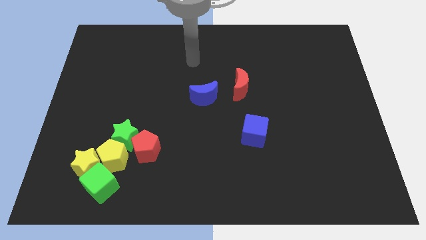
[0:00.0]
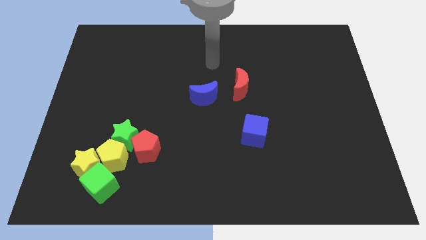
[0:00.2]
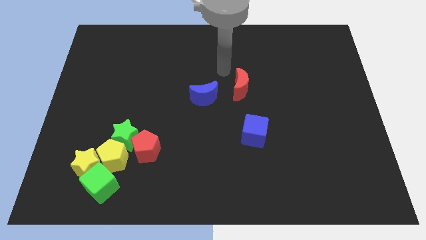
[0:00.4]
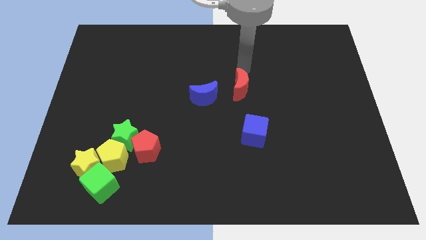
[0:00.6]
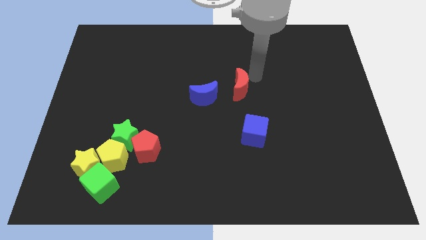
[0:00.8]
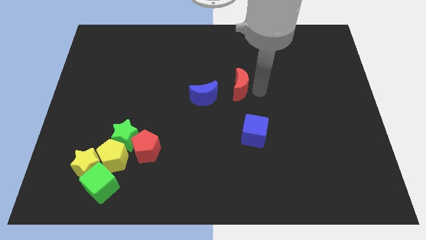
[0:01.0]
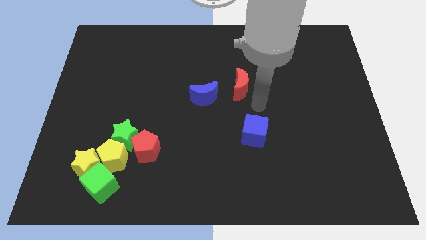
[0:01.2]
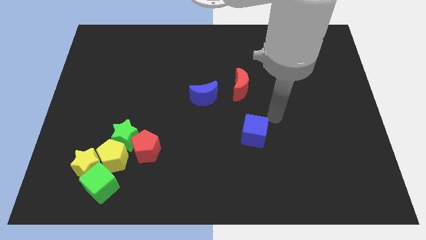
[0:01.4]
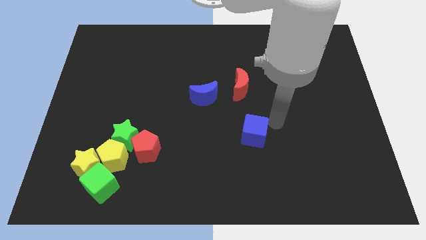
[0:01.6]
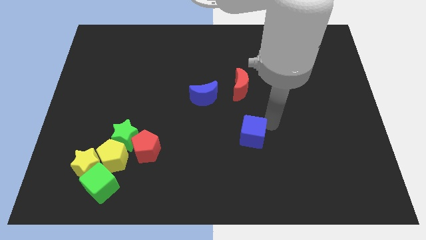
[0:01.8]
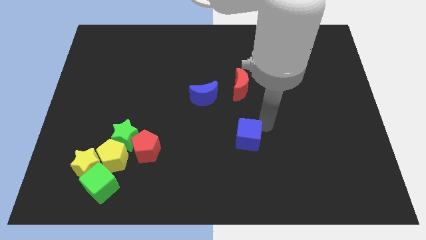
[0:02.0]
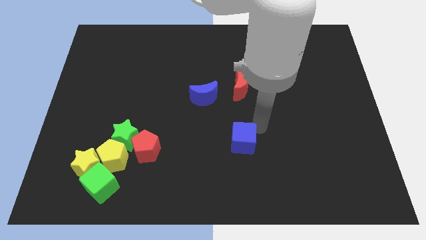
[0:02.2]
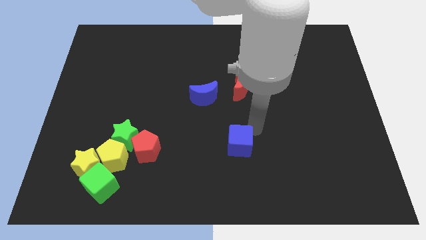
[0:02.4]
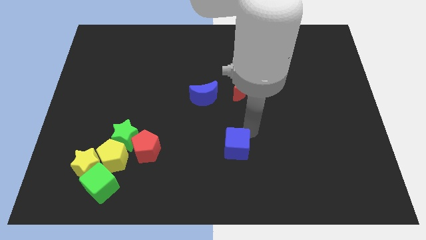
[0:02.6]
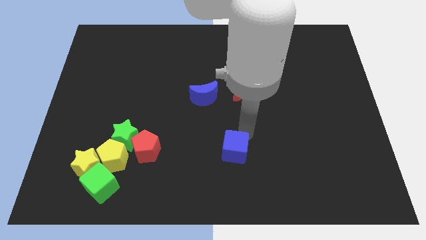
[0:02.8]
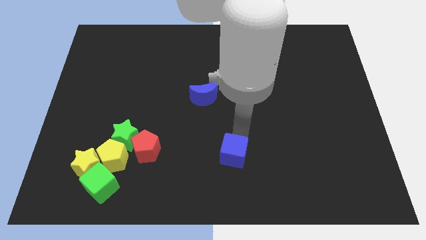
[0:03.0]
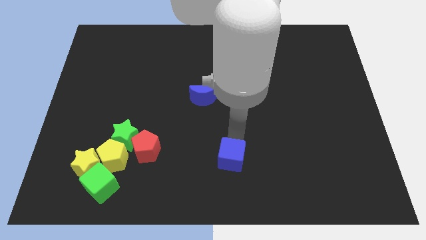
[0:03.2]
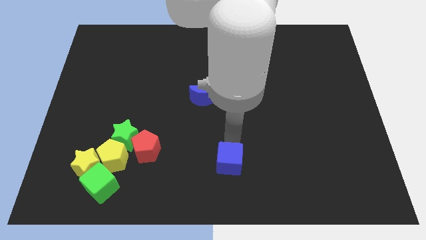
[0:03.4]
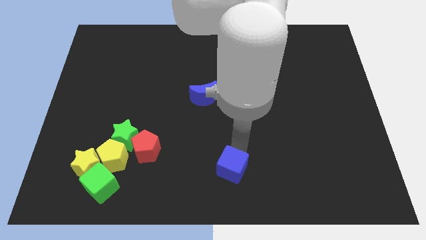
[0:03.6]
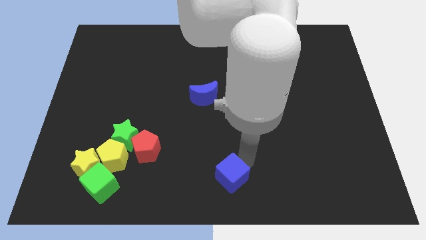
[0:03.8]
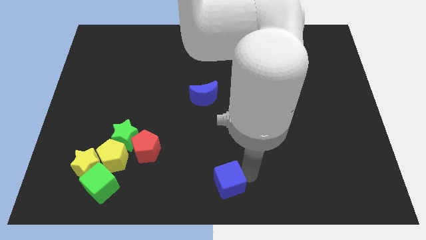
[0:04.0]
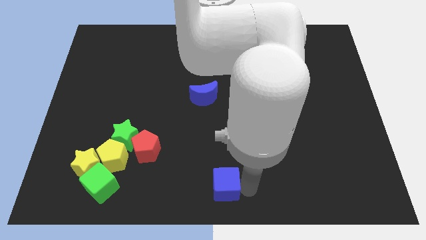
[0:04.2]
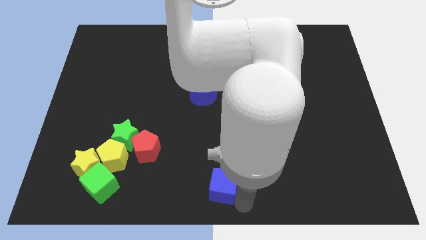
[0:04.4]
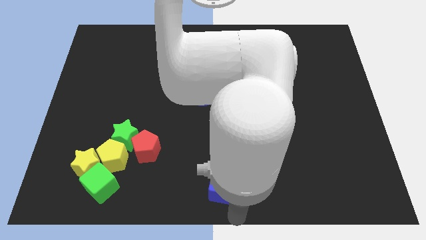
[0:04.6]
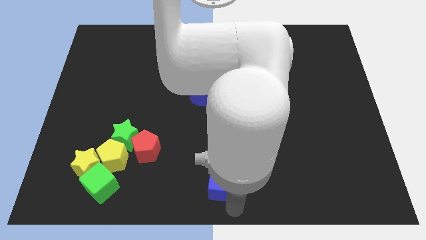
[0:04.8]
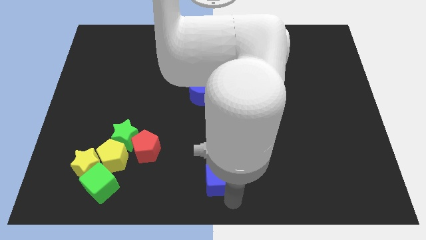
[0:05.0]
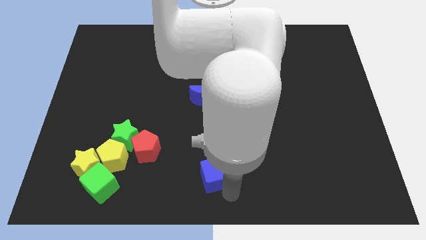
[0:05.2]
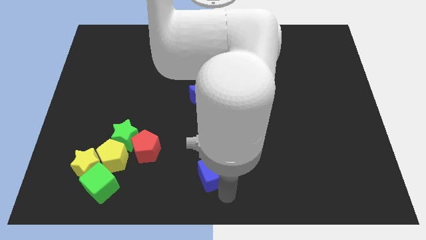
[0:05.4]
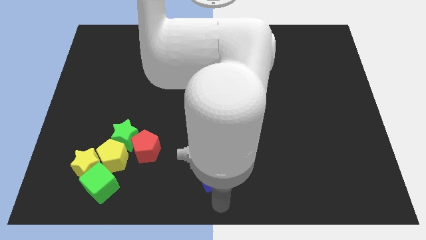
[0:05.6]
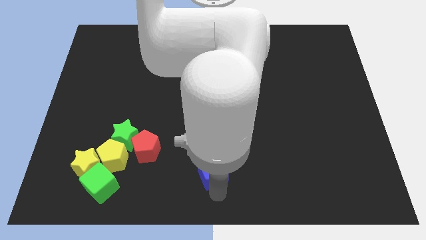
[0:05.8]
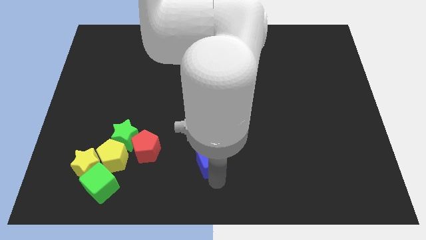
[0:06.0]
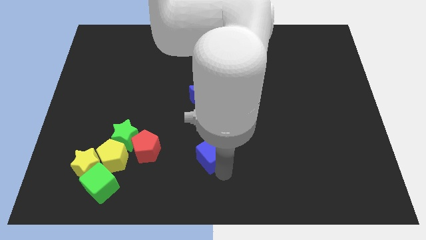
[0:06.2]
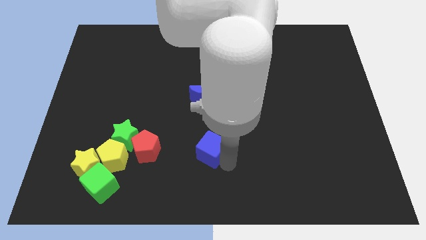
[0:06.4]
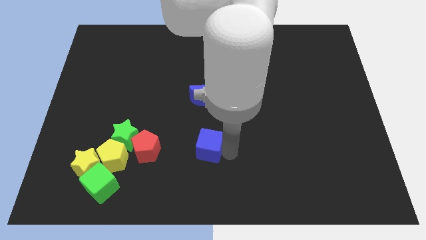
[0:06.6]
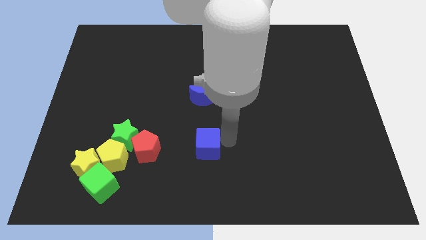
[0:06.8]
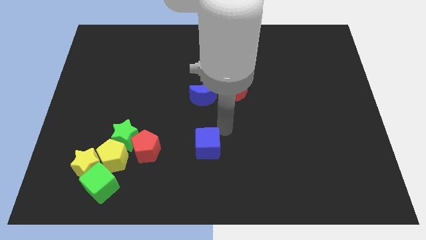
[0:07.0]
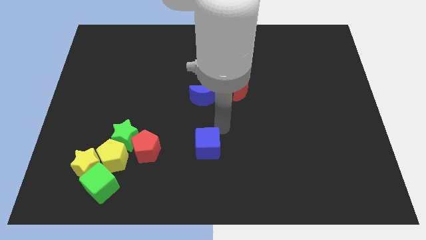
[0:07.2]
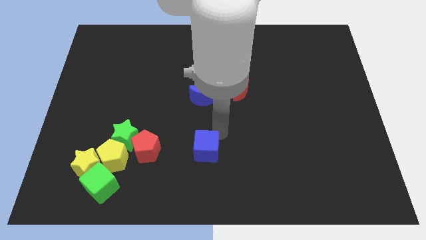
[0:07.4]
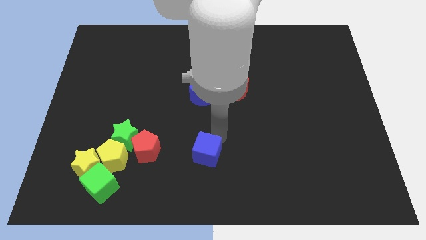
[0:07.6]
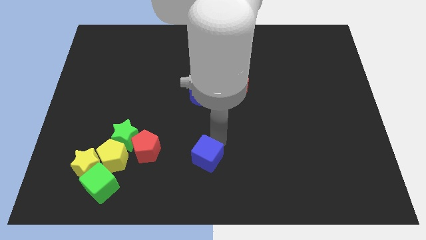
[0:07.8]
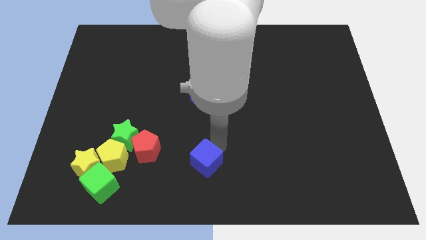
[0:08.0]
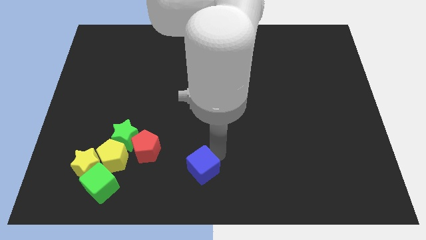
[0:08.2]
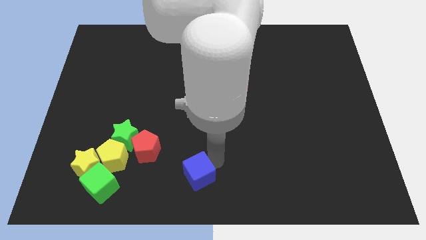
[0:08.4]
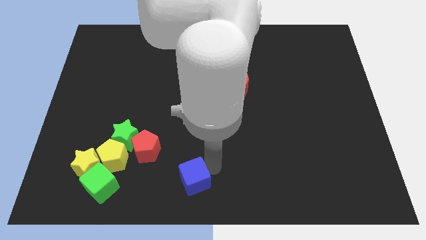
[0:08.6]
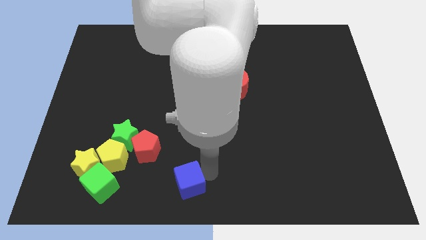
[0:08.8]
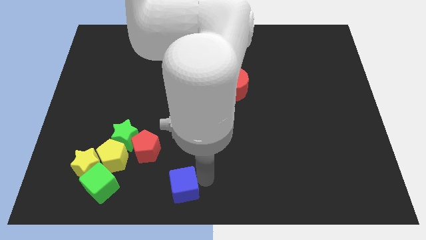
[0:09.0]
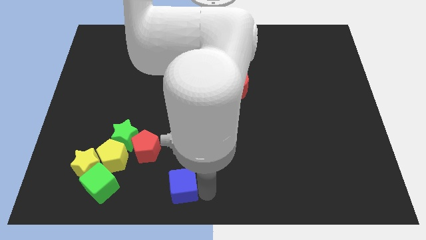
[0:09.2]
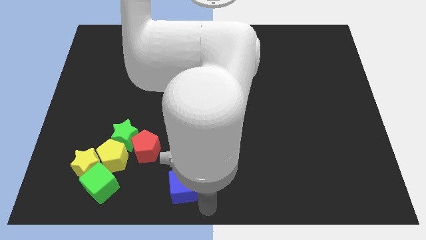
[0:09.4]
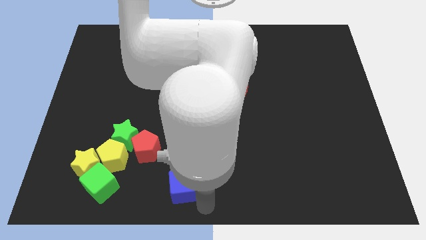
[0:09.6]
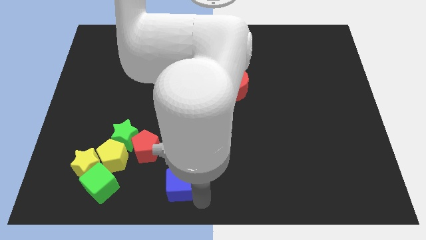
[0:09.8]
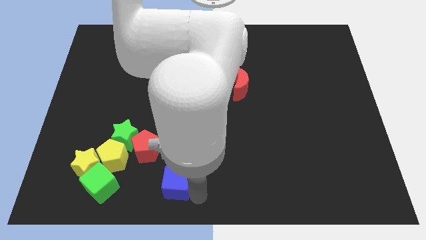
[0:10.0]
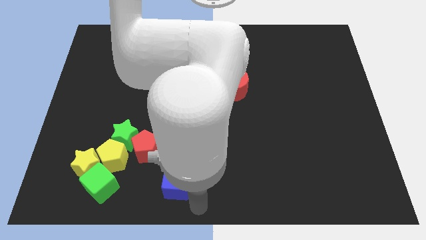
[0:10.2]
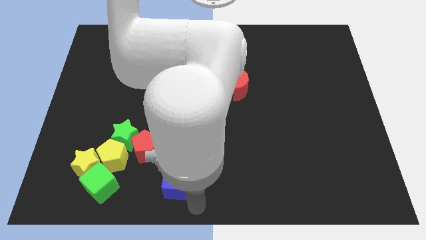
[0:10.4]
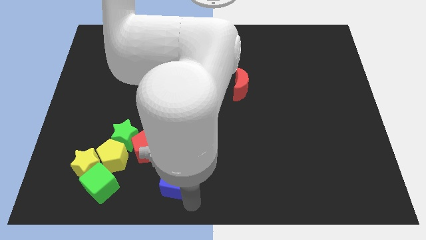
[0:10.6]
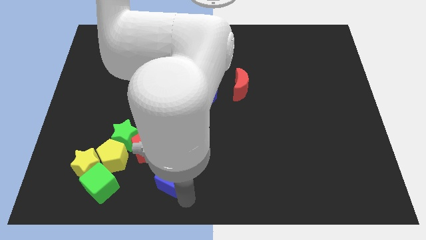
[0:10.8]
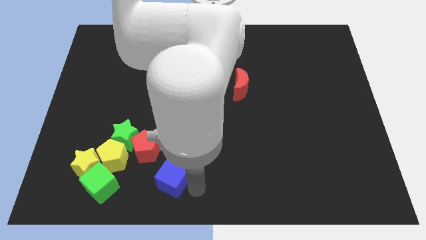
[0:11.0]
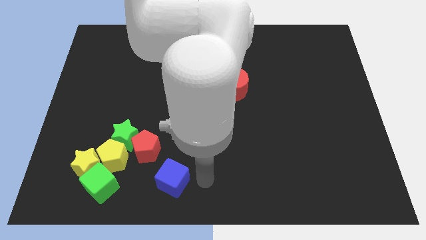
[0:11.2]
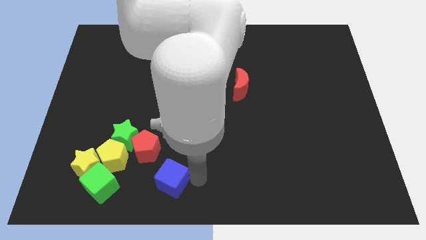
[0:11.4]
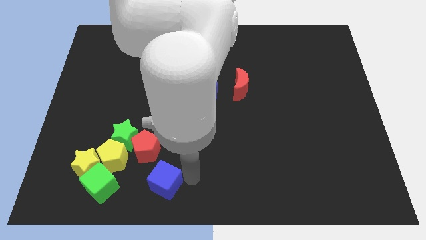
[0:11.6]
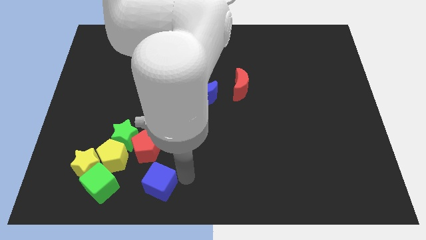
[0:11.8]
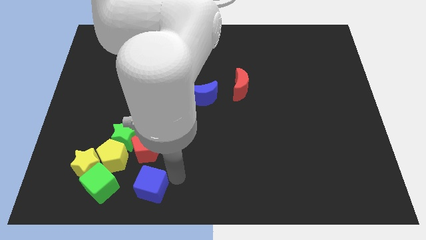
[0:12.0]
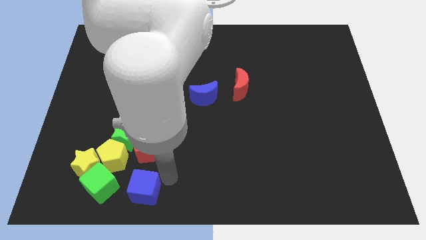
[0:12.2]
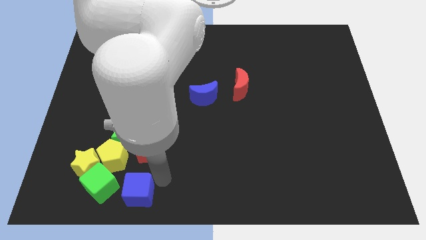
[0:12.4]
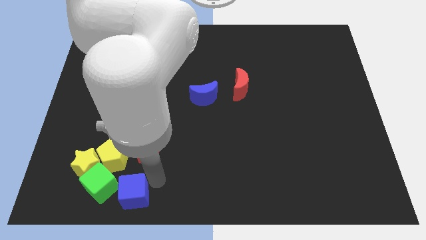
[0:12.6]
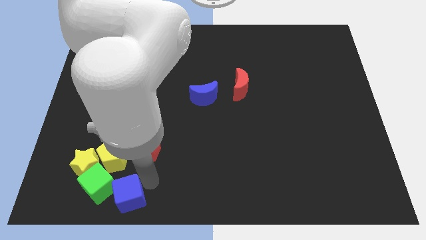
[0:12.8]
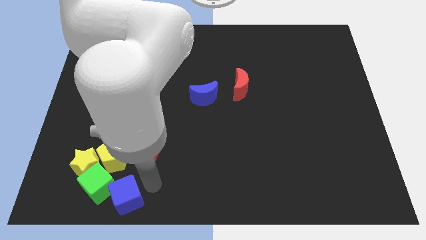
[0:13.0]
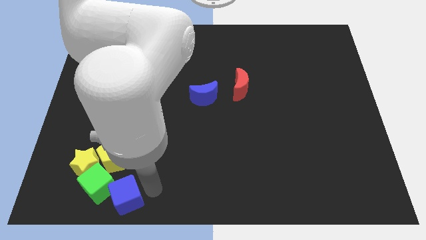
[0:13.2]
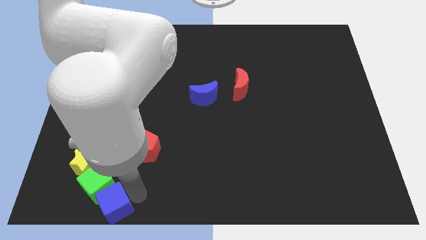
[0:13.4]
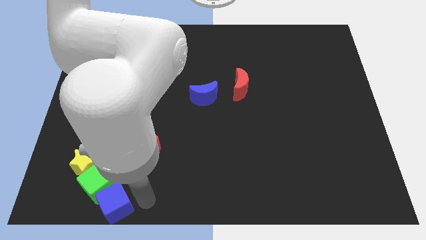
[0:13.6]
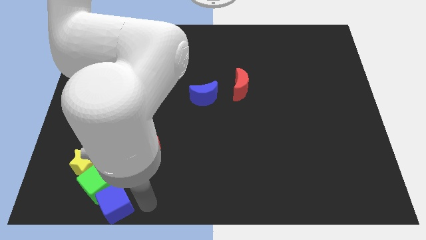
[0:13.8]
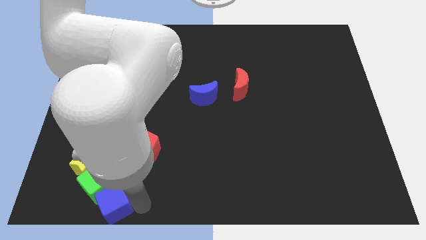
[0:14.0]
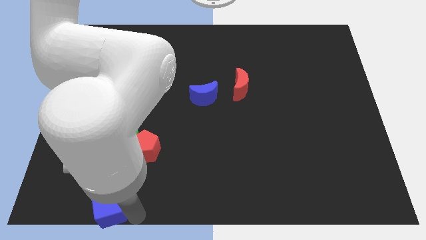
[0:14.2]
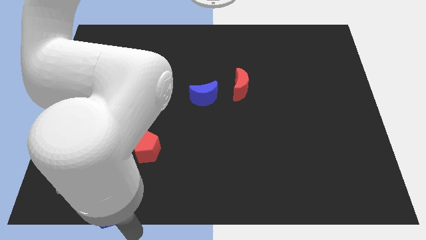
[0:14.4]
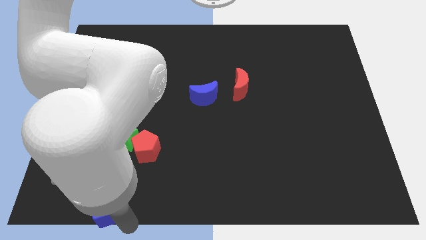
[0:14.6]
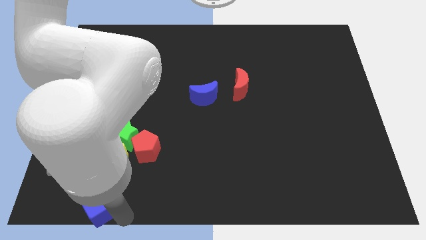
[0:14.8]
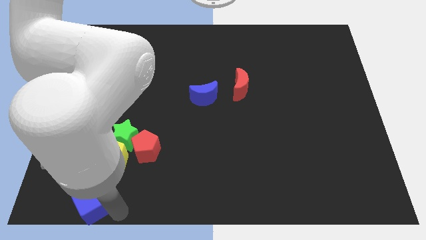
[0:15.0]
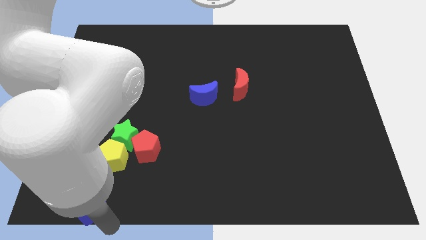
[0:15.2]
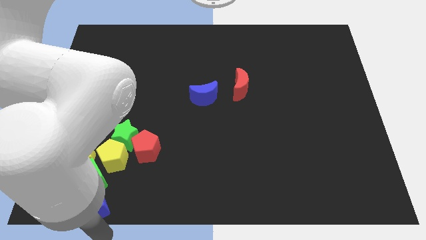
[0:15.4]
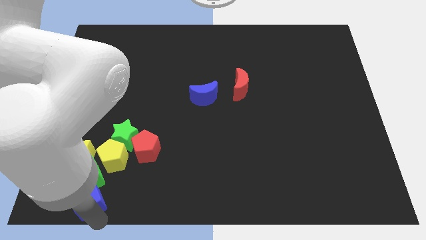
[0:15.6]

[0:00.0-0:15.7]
put the blue cube diagonally down and to the left of the yellow pentagon
